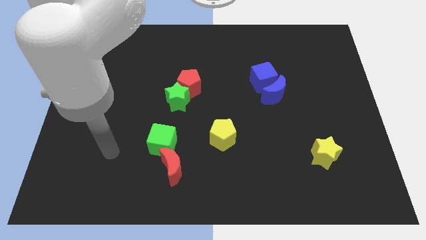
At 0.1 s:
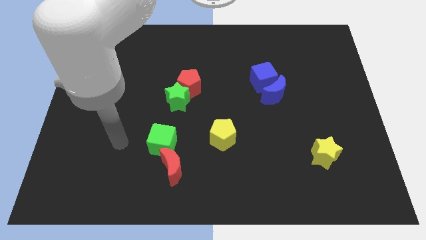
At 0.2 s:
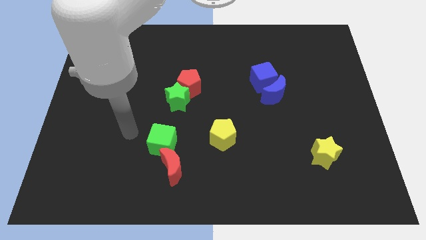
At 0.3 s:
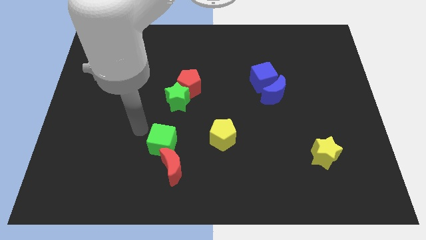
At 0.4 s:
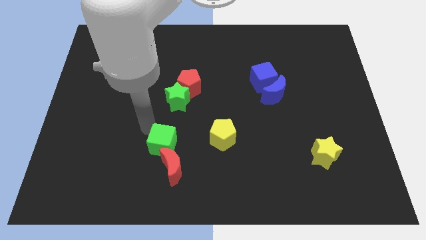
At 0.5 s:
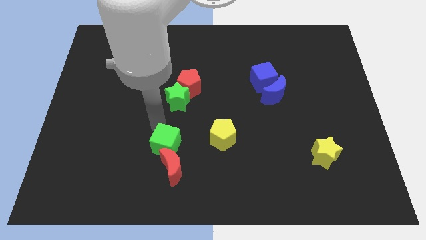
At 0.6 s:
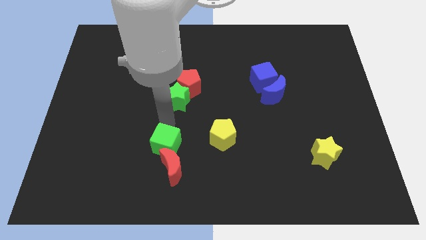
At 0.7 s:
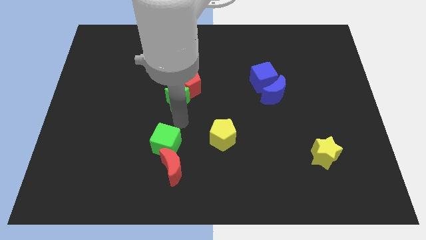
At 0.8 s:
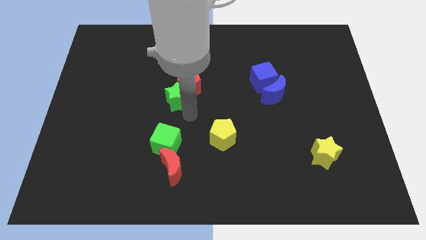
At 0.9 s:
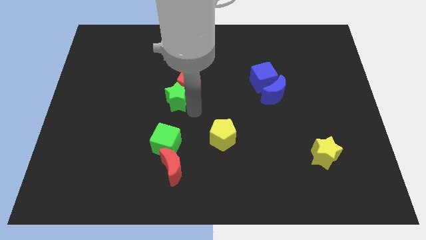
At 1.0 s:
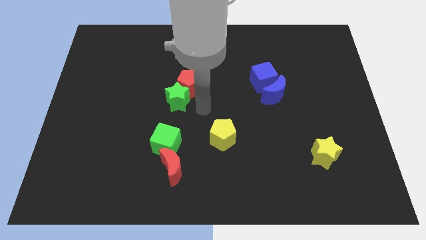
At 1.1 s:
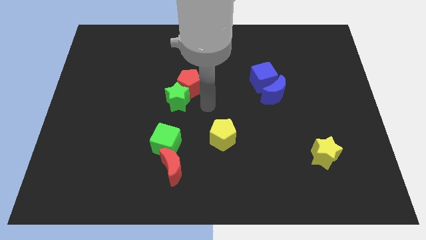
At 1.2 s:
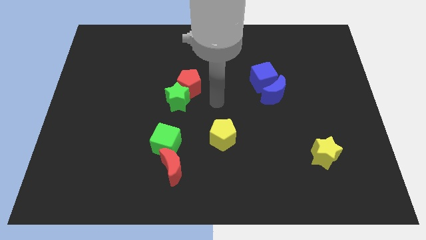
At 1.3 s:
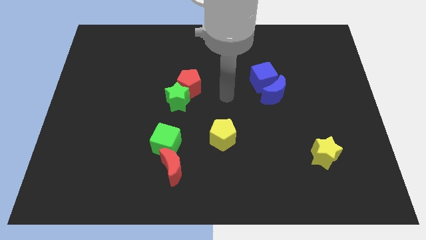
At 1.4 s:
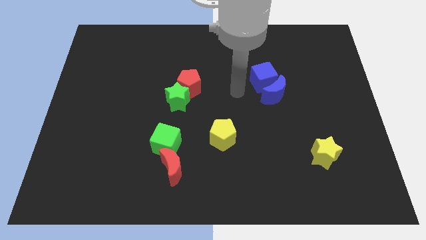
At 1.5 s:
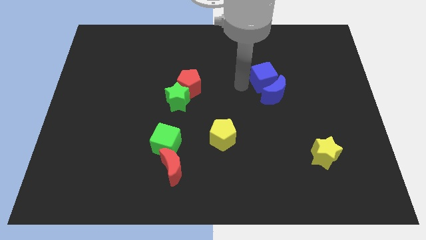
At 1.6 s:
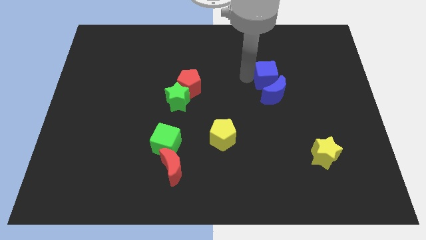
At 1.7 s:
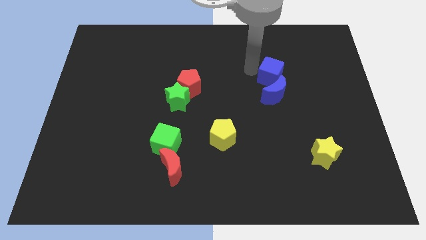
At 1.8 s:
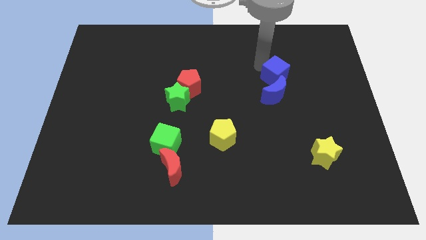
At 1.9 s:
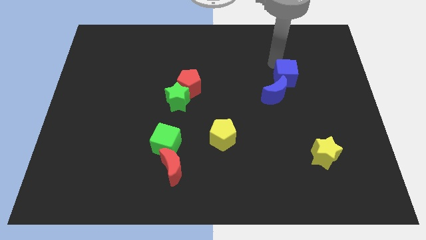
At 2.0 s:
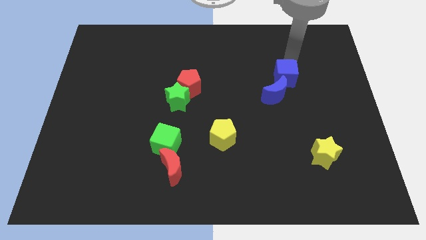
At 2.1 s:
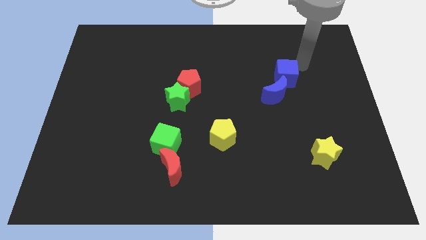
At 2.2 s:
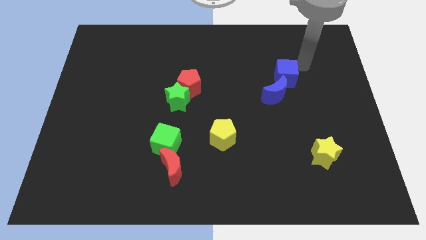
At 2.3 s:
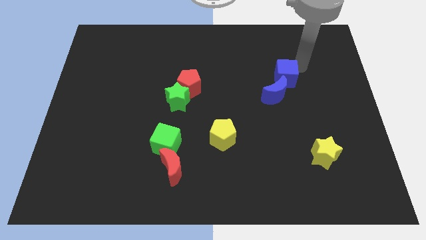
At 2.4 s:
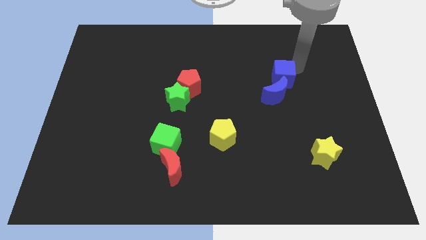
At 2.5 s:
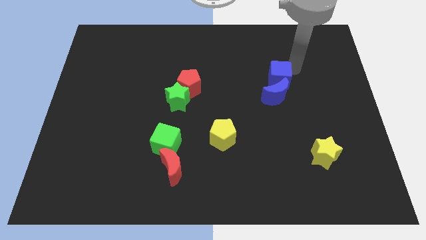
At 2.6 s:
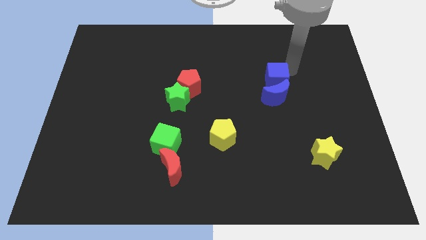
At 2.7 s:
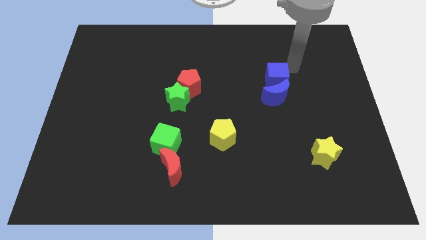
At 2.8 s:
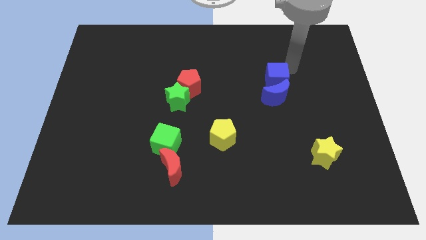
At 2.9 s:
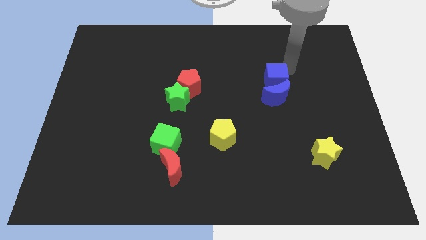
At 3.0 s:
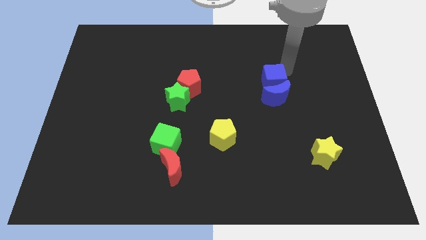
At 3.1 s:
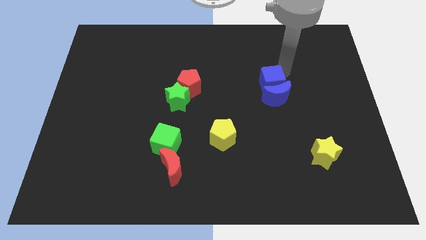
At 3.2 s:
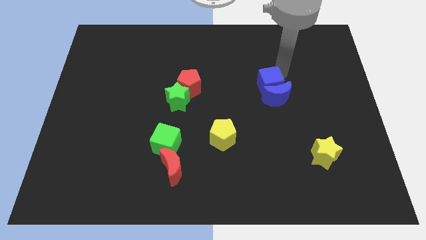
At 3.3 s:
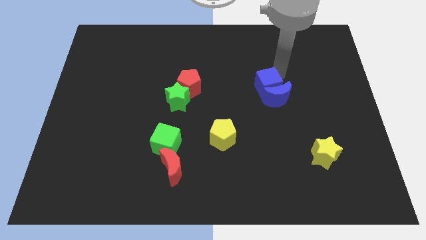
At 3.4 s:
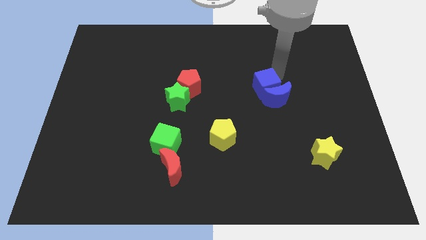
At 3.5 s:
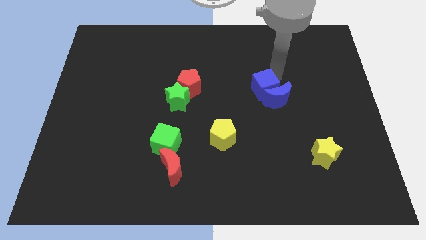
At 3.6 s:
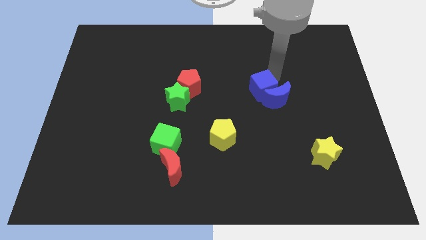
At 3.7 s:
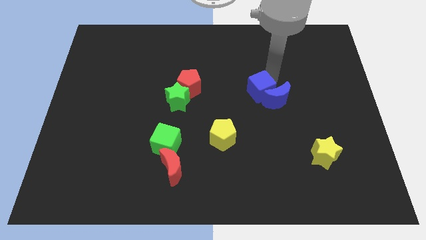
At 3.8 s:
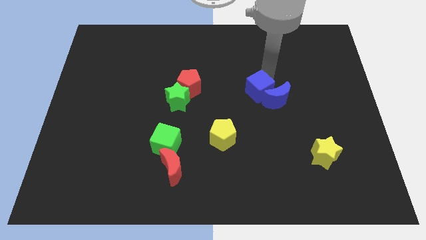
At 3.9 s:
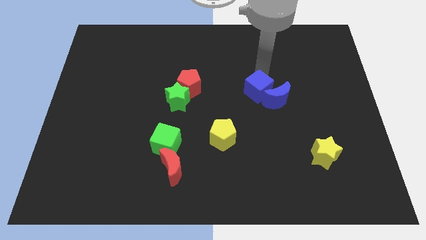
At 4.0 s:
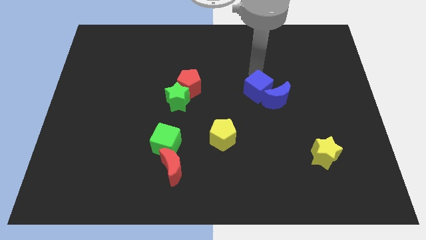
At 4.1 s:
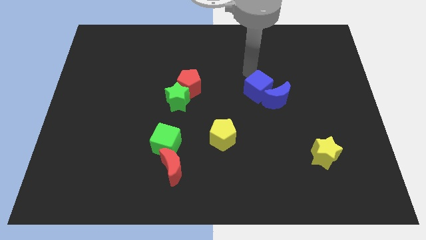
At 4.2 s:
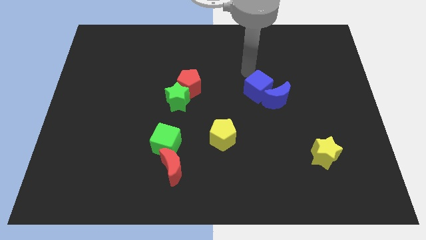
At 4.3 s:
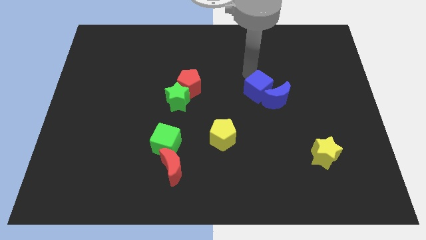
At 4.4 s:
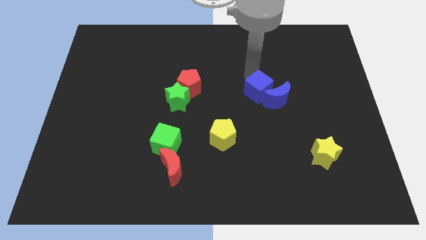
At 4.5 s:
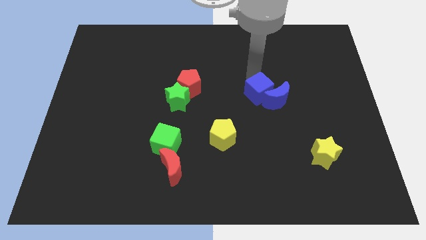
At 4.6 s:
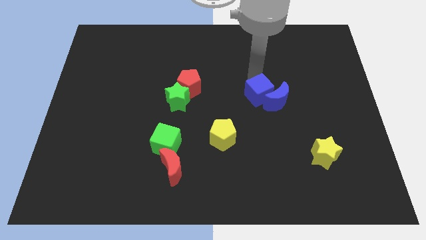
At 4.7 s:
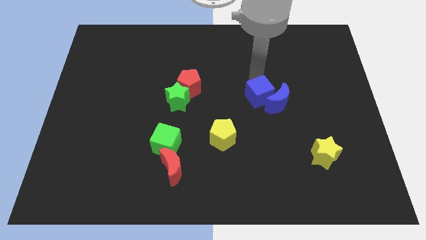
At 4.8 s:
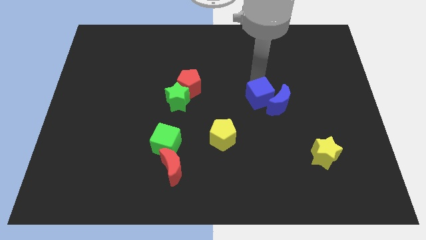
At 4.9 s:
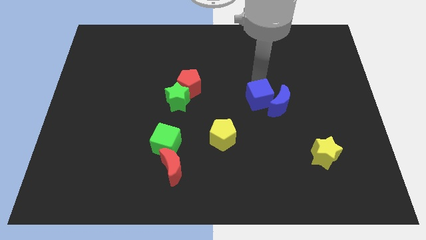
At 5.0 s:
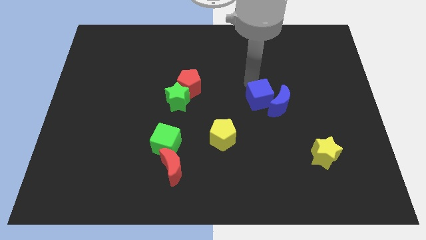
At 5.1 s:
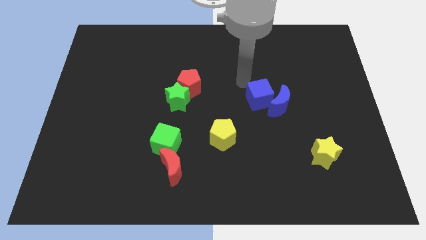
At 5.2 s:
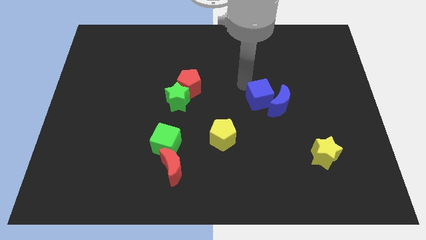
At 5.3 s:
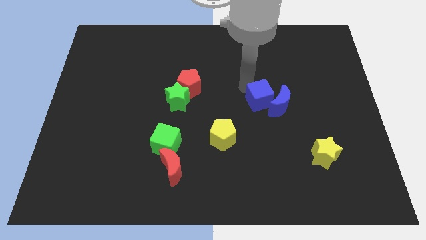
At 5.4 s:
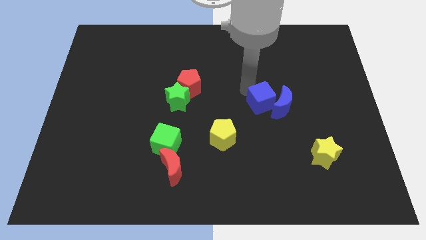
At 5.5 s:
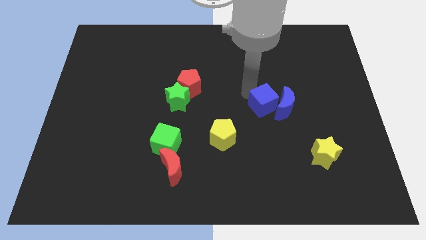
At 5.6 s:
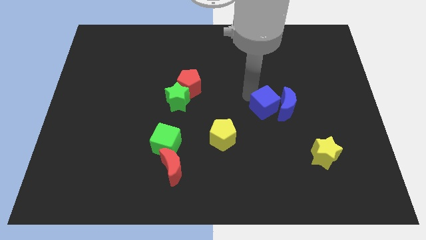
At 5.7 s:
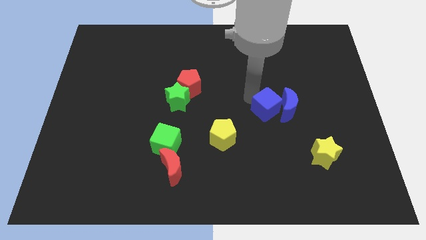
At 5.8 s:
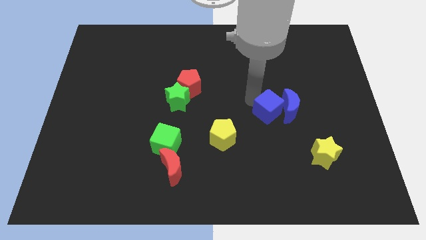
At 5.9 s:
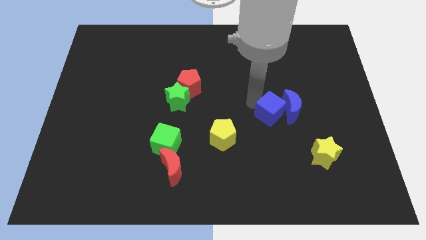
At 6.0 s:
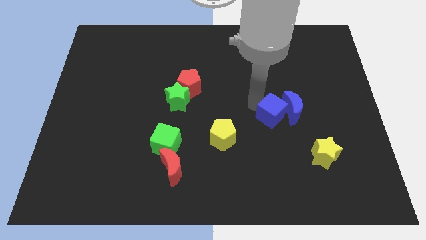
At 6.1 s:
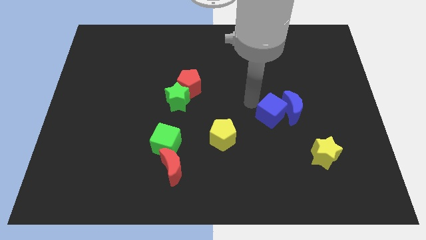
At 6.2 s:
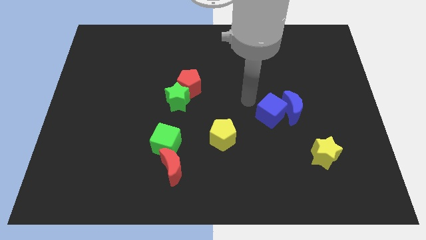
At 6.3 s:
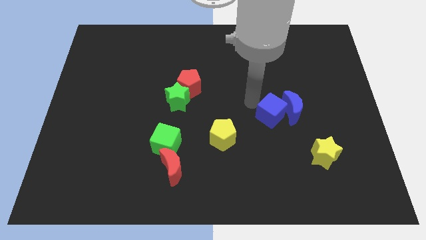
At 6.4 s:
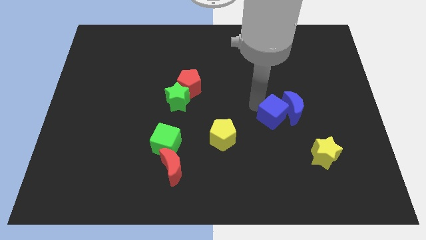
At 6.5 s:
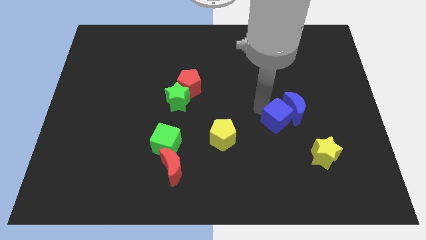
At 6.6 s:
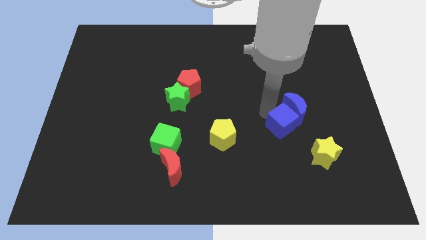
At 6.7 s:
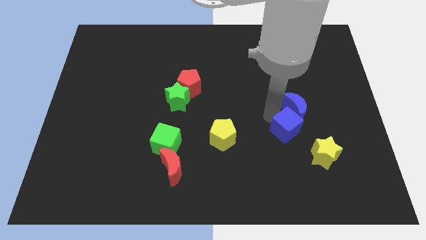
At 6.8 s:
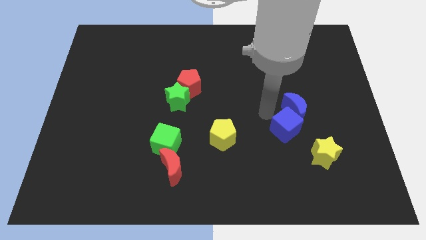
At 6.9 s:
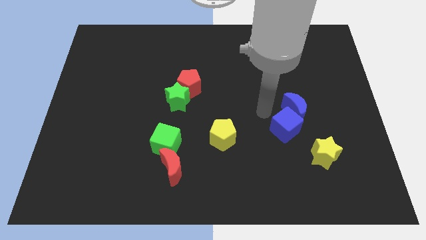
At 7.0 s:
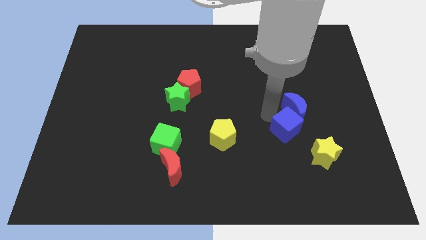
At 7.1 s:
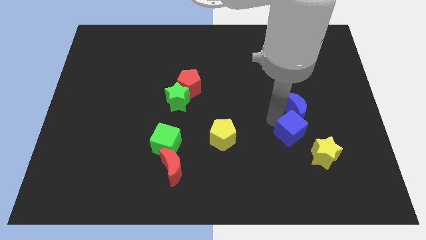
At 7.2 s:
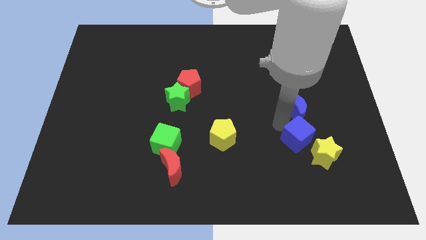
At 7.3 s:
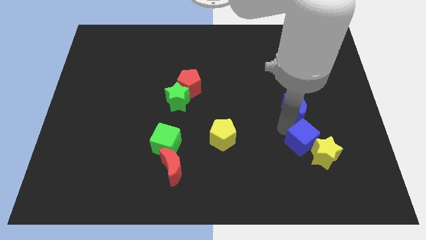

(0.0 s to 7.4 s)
put the blue cube towards the yellow star
